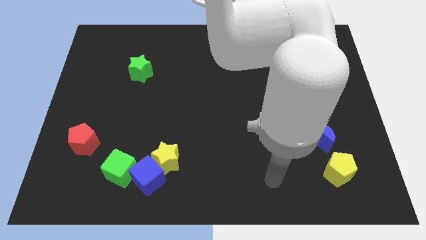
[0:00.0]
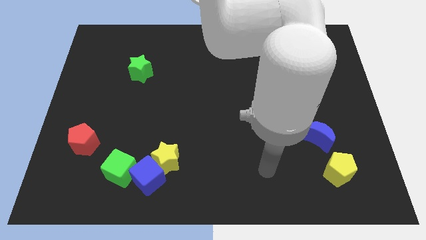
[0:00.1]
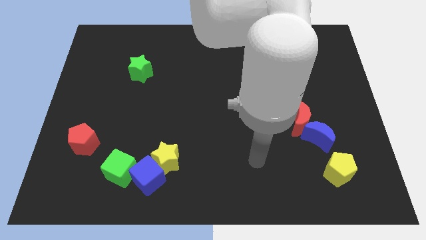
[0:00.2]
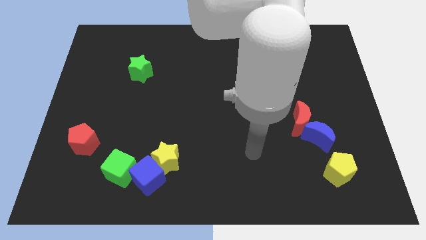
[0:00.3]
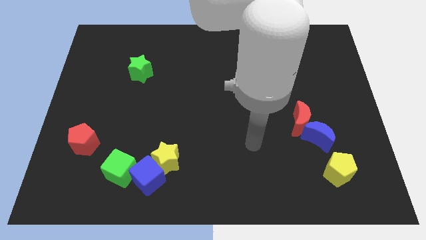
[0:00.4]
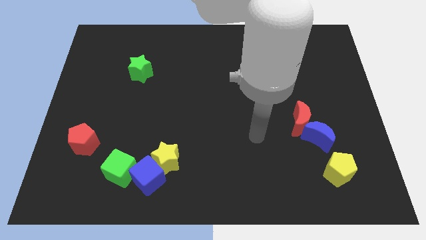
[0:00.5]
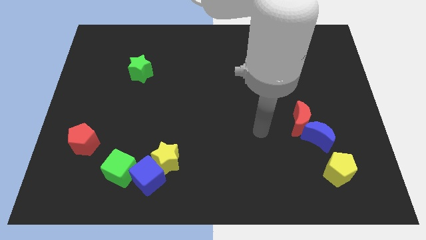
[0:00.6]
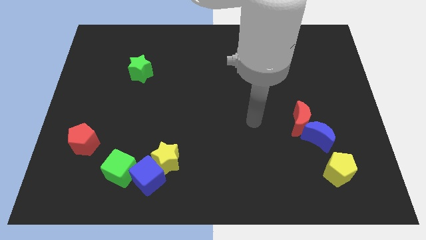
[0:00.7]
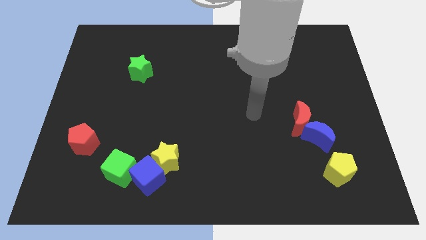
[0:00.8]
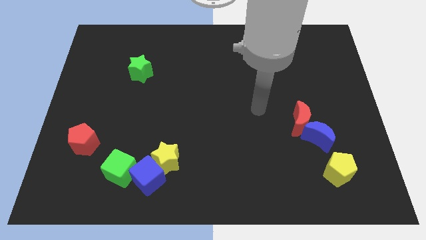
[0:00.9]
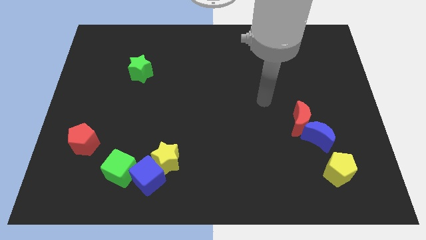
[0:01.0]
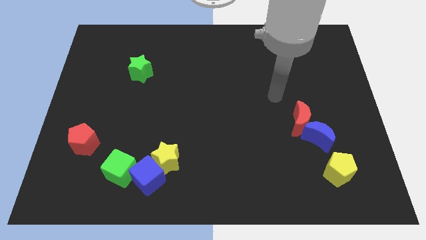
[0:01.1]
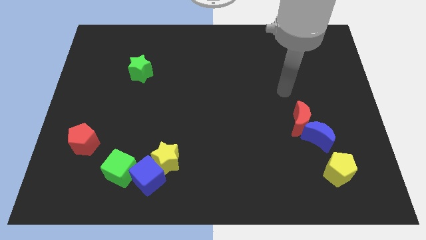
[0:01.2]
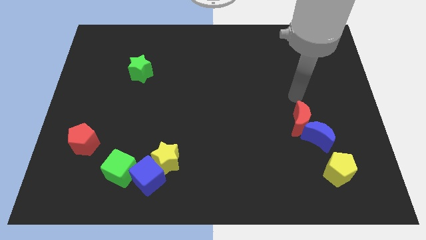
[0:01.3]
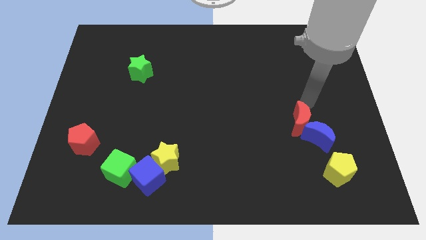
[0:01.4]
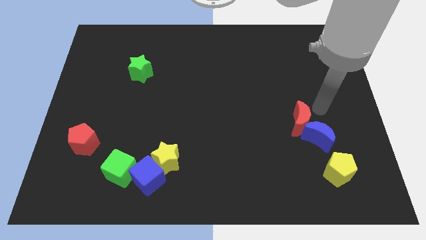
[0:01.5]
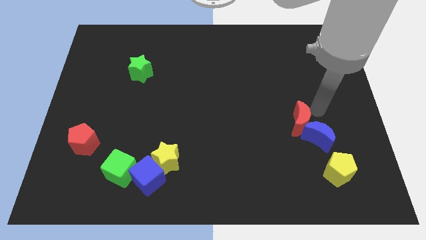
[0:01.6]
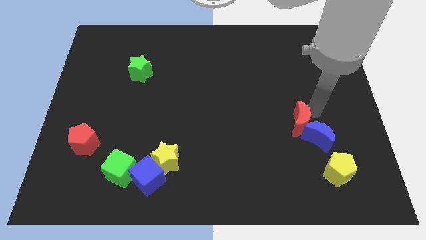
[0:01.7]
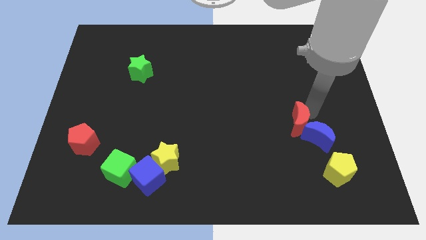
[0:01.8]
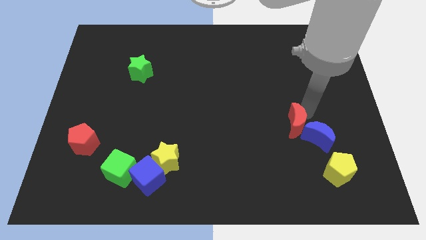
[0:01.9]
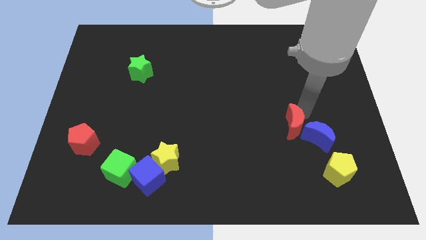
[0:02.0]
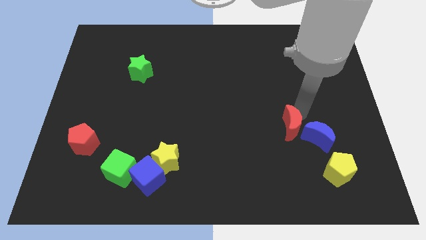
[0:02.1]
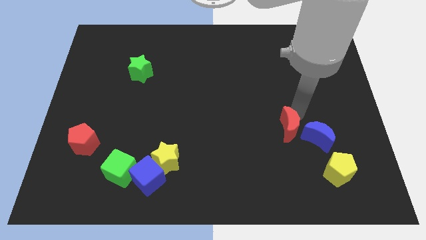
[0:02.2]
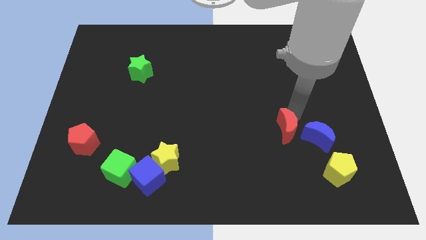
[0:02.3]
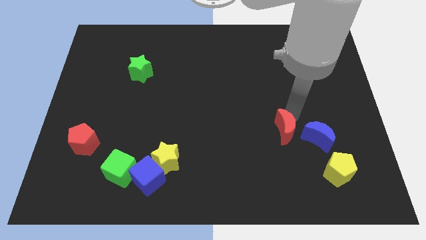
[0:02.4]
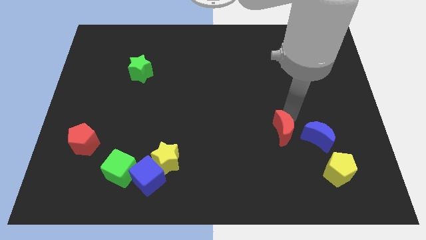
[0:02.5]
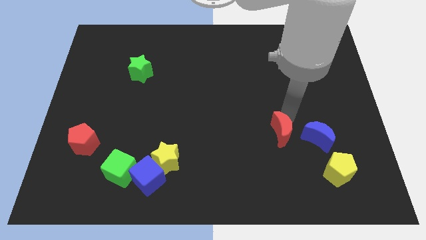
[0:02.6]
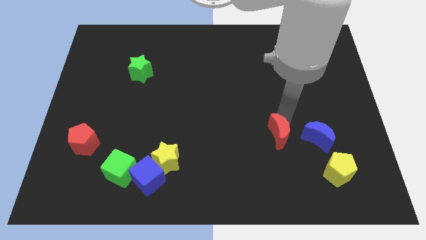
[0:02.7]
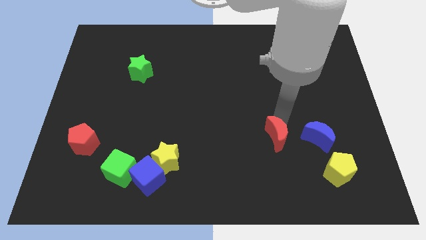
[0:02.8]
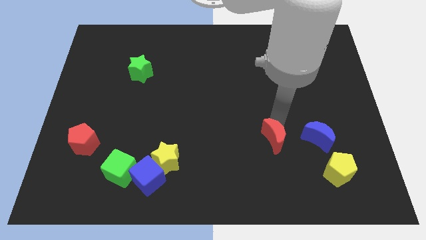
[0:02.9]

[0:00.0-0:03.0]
push the red moon a little bit down and to the left diagonally

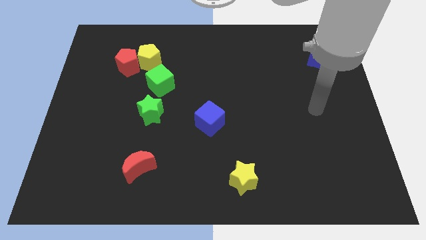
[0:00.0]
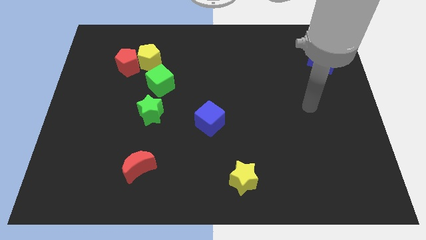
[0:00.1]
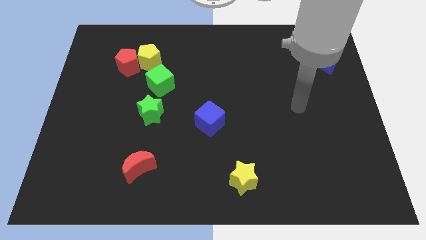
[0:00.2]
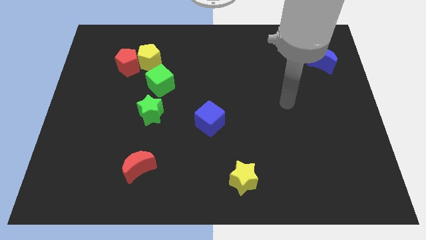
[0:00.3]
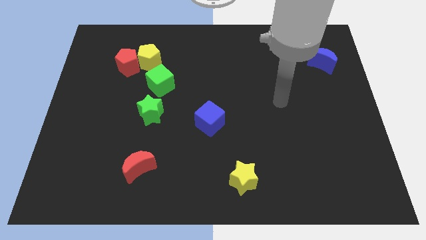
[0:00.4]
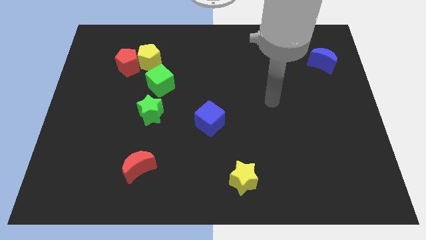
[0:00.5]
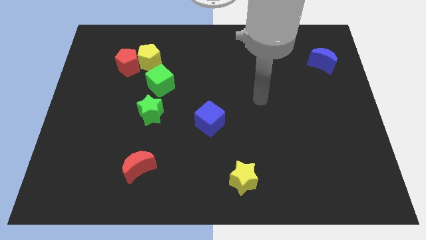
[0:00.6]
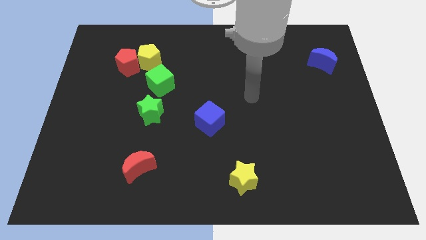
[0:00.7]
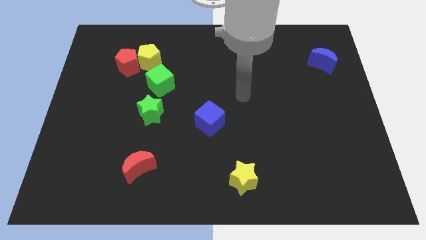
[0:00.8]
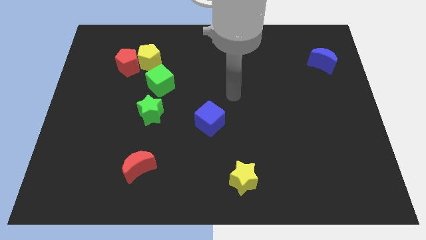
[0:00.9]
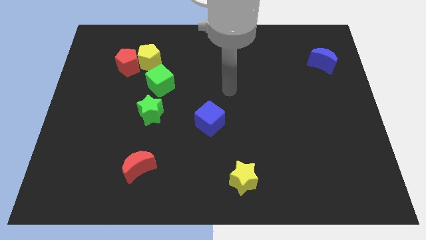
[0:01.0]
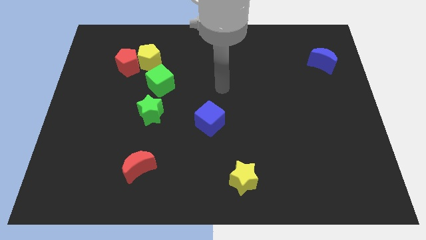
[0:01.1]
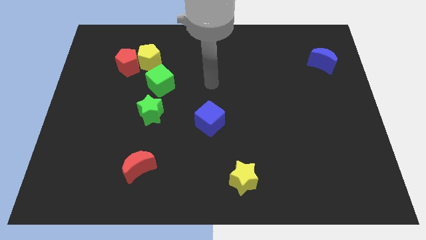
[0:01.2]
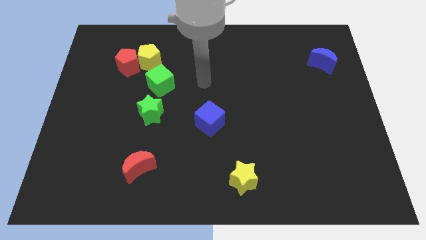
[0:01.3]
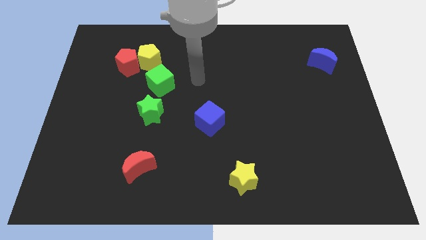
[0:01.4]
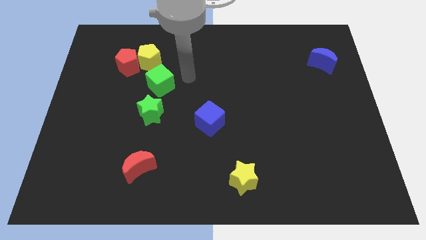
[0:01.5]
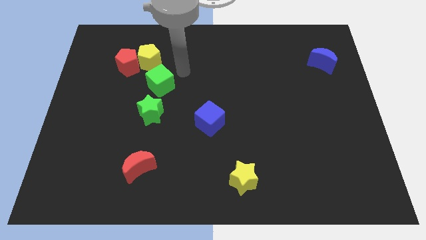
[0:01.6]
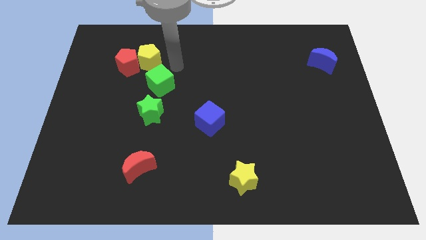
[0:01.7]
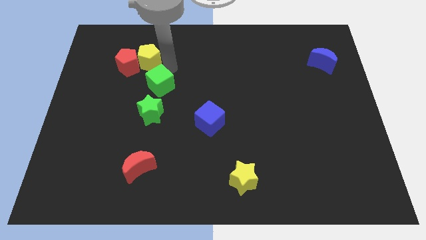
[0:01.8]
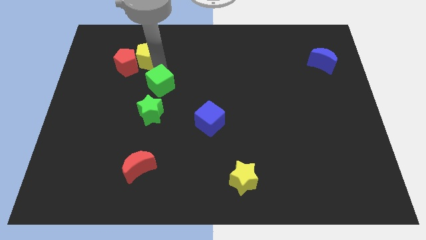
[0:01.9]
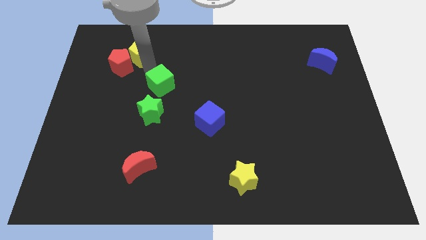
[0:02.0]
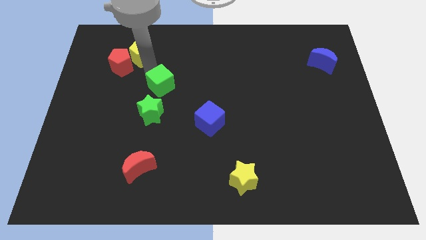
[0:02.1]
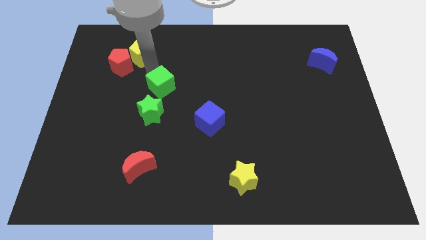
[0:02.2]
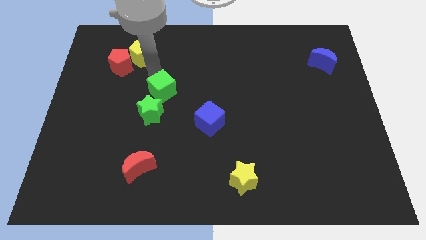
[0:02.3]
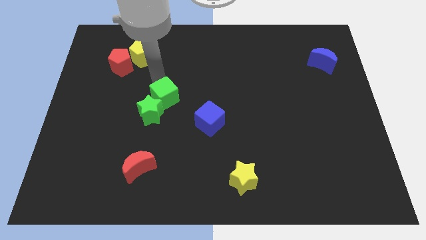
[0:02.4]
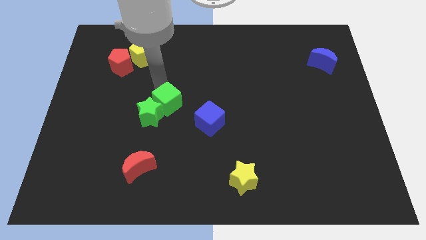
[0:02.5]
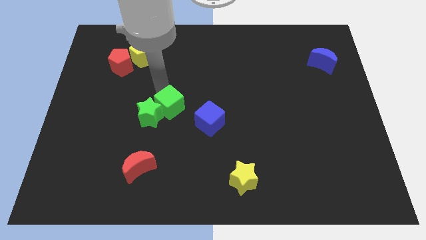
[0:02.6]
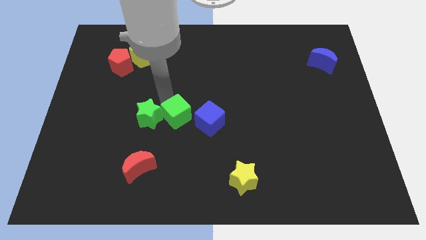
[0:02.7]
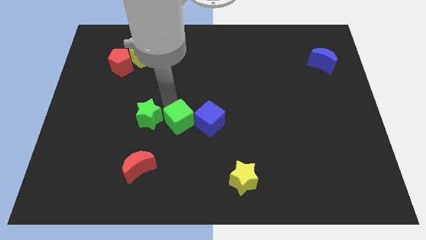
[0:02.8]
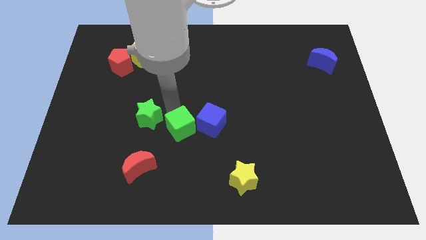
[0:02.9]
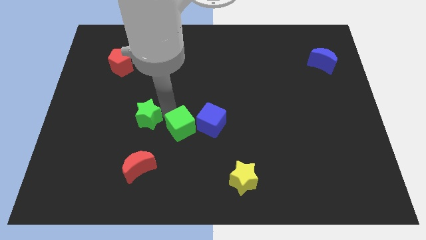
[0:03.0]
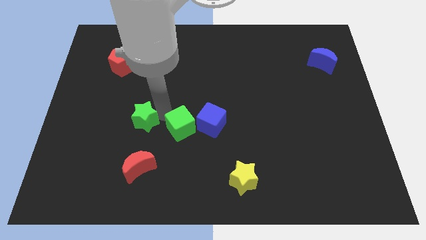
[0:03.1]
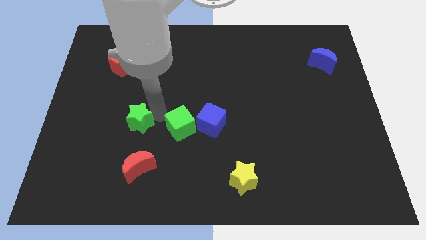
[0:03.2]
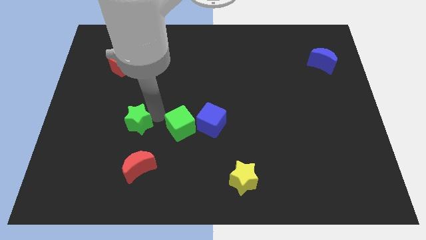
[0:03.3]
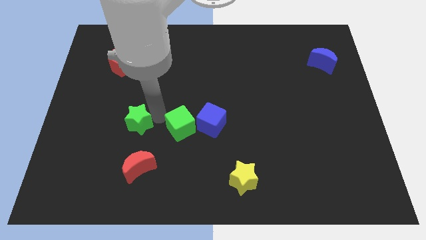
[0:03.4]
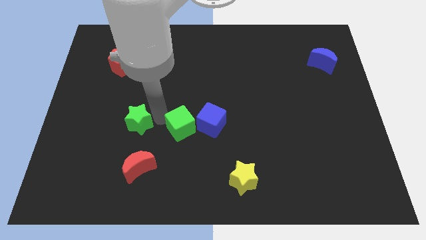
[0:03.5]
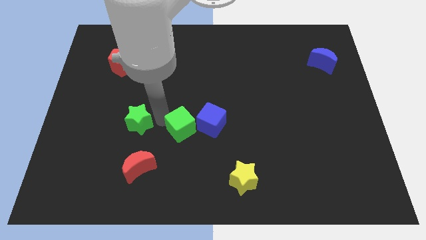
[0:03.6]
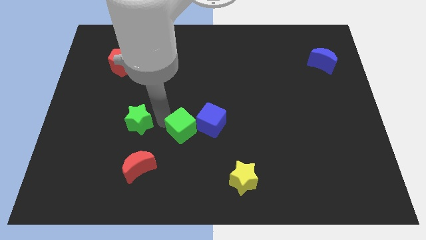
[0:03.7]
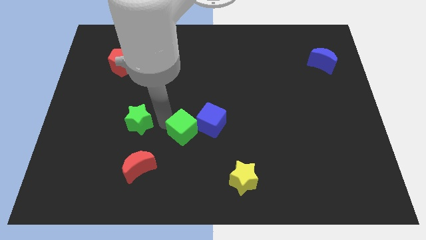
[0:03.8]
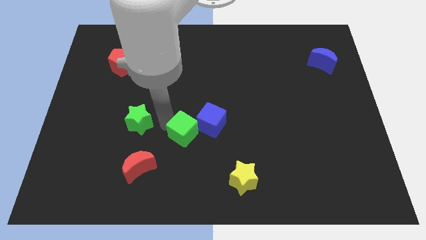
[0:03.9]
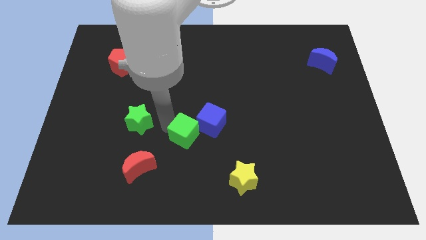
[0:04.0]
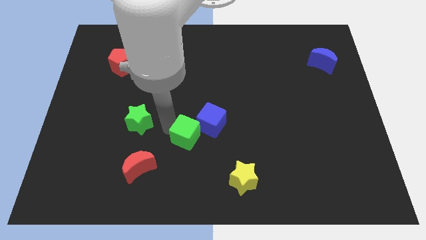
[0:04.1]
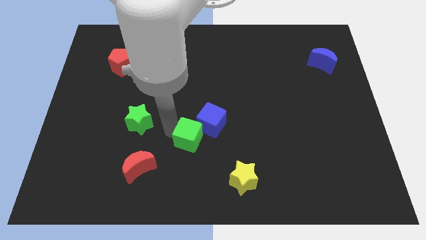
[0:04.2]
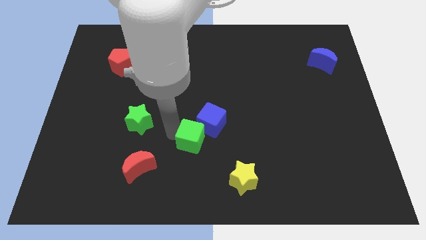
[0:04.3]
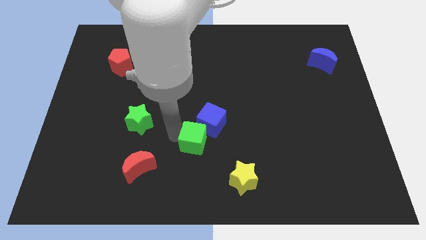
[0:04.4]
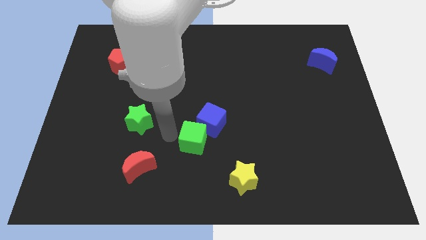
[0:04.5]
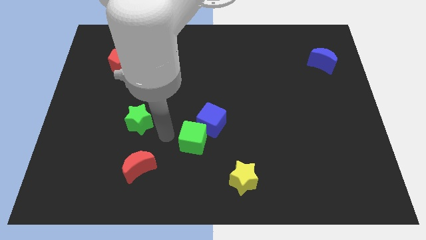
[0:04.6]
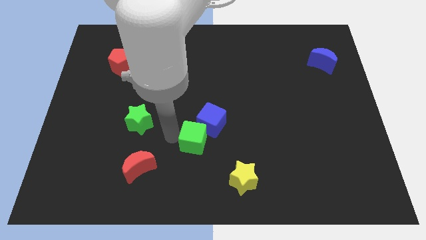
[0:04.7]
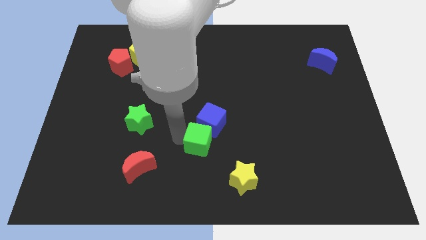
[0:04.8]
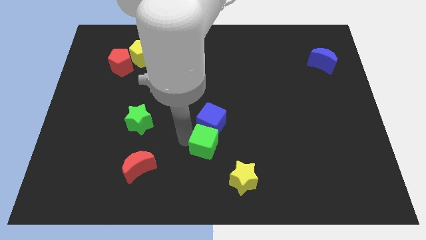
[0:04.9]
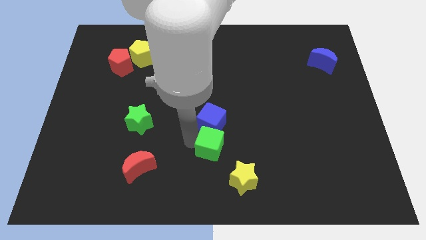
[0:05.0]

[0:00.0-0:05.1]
slide the green cube down and then to the right

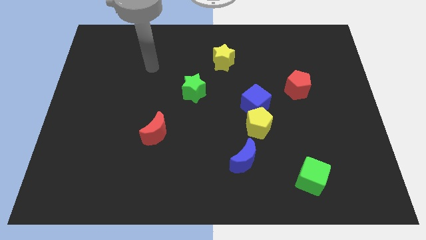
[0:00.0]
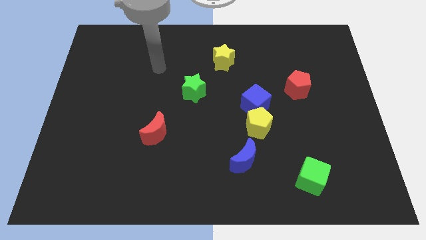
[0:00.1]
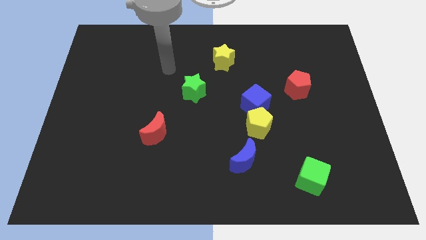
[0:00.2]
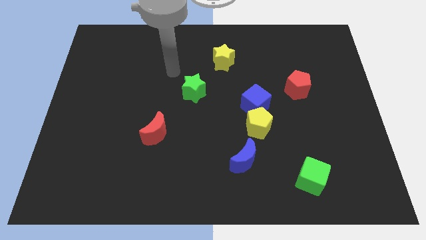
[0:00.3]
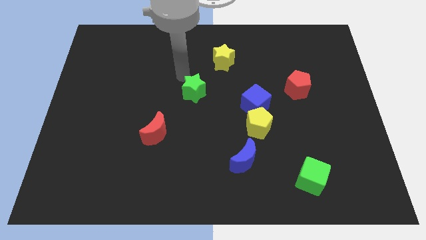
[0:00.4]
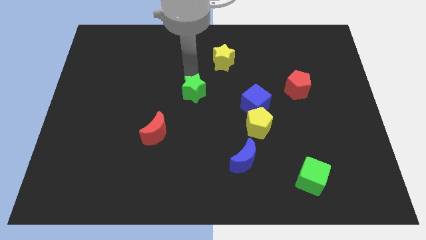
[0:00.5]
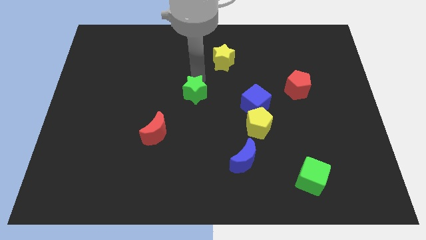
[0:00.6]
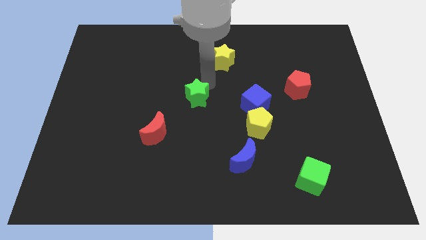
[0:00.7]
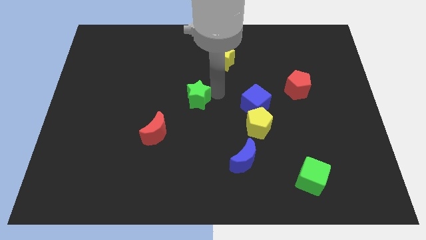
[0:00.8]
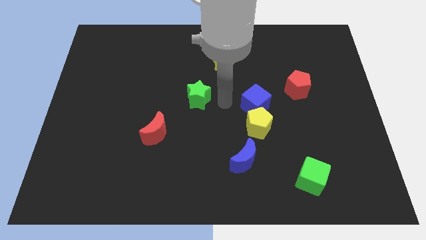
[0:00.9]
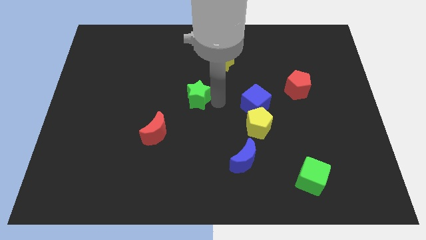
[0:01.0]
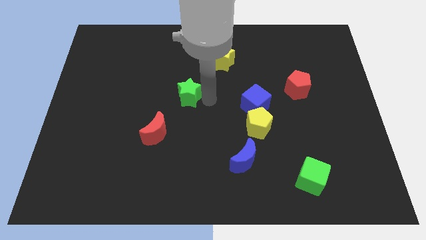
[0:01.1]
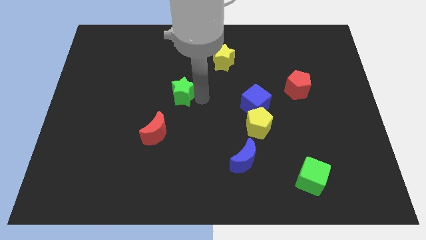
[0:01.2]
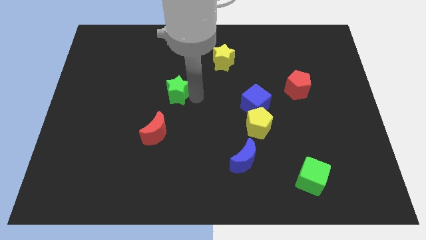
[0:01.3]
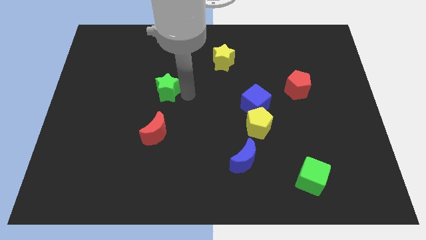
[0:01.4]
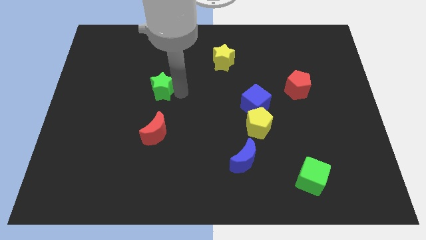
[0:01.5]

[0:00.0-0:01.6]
move the green star a bit left
